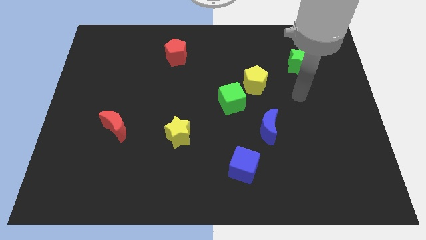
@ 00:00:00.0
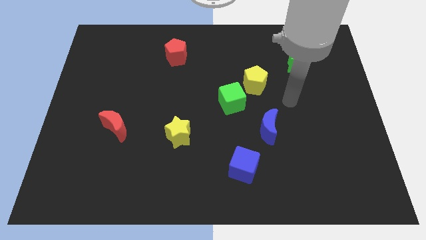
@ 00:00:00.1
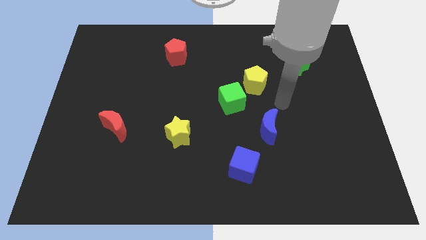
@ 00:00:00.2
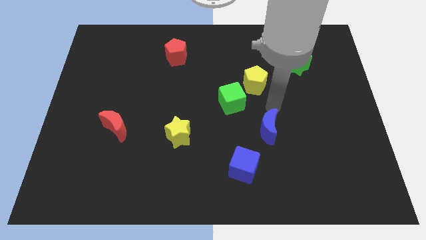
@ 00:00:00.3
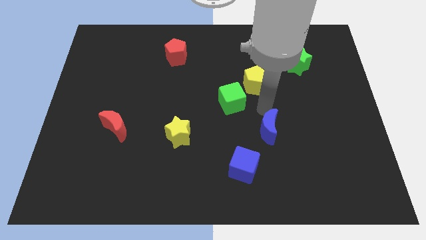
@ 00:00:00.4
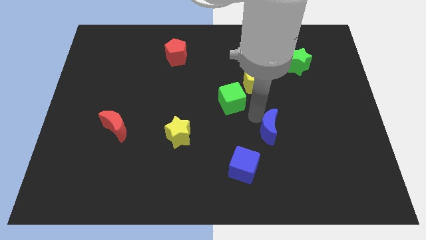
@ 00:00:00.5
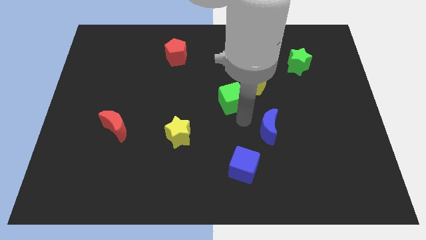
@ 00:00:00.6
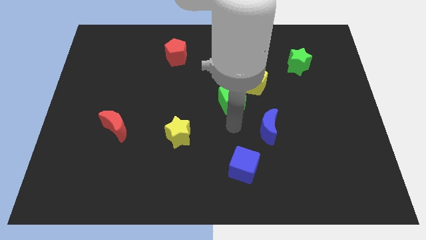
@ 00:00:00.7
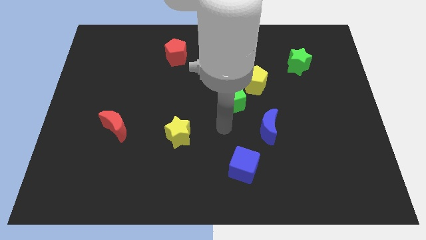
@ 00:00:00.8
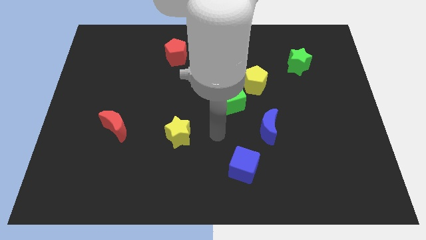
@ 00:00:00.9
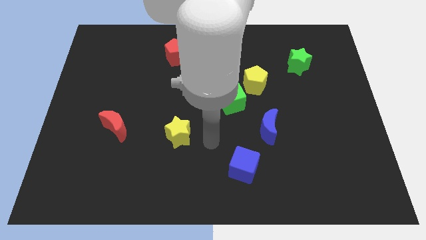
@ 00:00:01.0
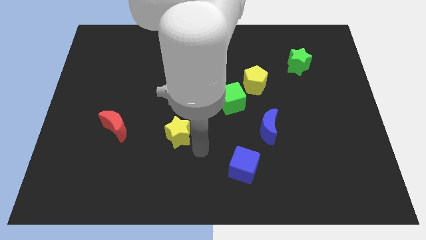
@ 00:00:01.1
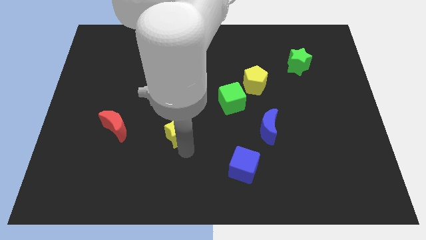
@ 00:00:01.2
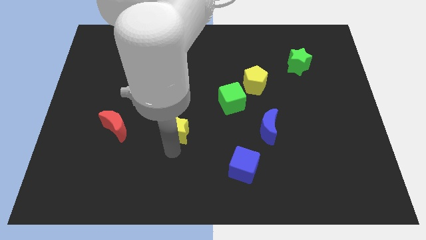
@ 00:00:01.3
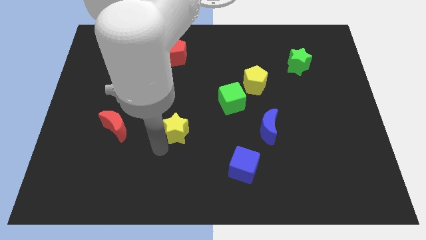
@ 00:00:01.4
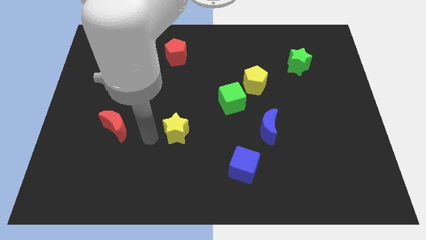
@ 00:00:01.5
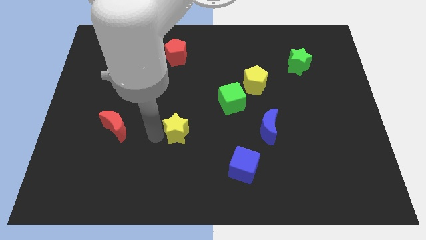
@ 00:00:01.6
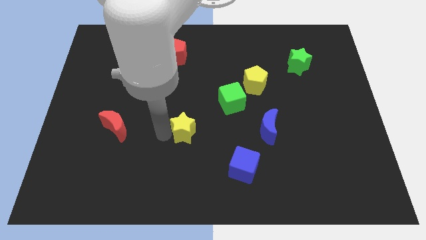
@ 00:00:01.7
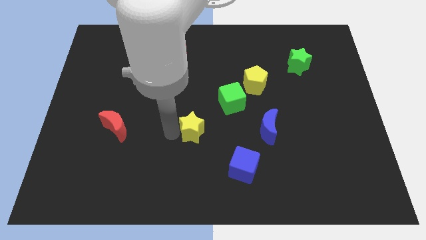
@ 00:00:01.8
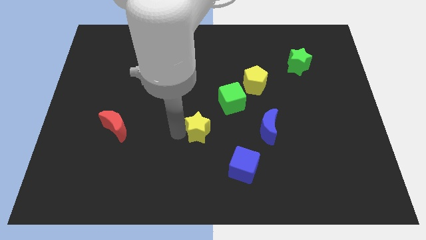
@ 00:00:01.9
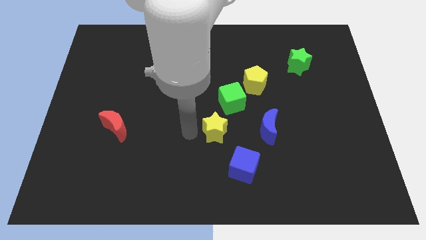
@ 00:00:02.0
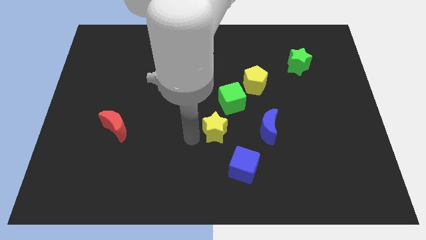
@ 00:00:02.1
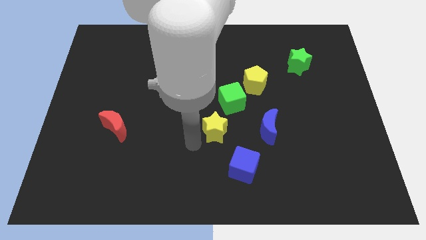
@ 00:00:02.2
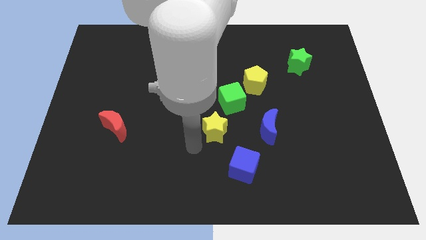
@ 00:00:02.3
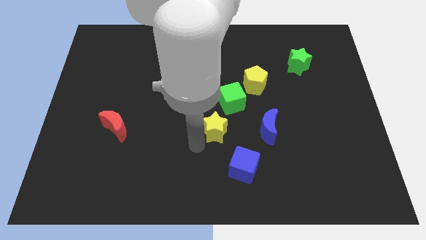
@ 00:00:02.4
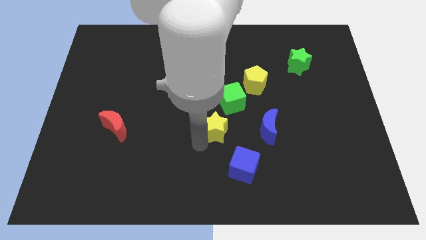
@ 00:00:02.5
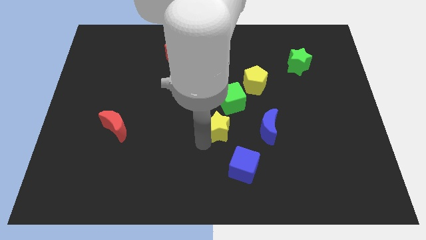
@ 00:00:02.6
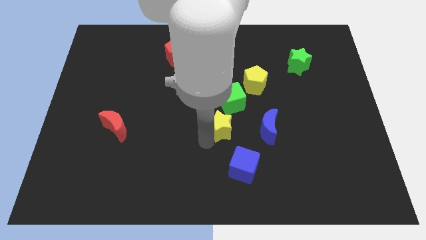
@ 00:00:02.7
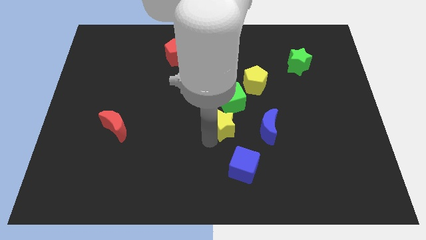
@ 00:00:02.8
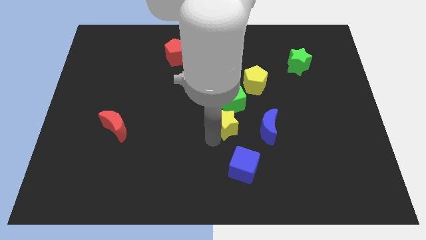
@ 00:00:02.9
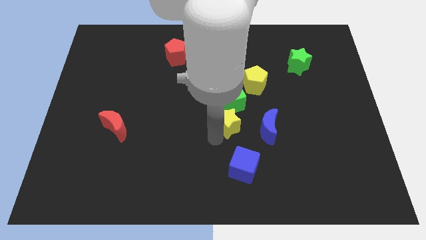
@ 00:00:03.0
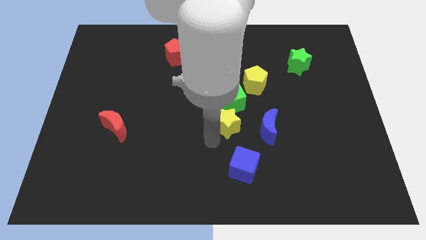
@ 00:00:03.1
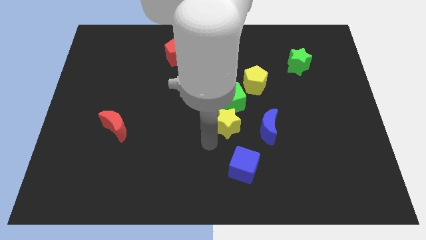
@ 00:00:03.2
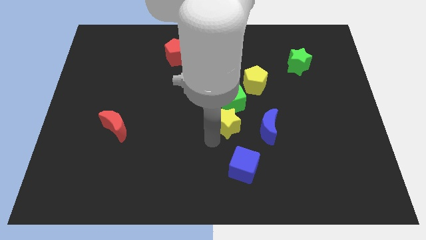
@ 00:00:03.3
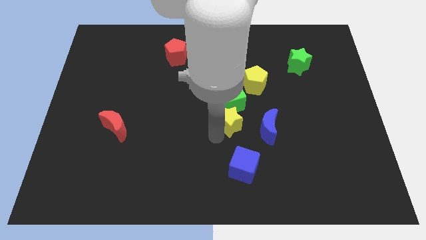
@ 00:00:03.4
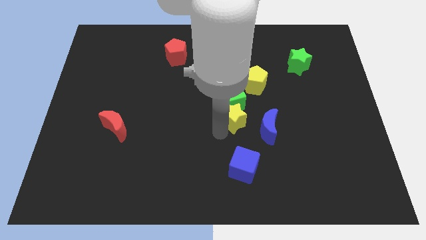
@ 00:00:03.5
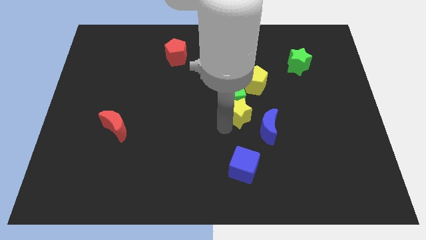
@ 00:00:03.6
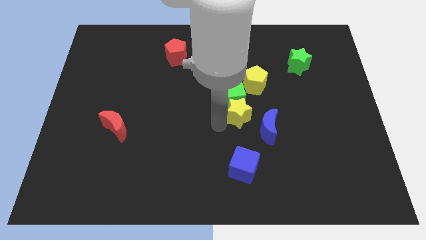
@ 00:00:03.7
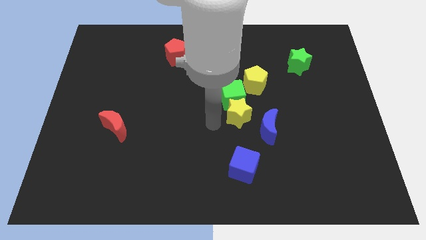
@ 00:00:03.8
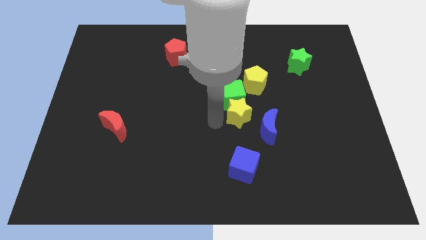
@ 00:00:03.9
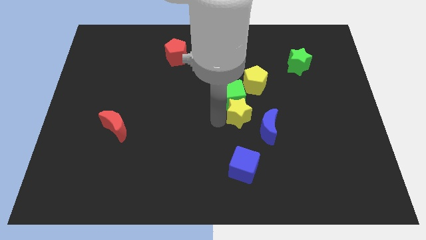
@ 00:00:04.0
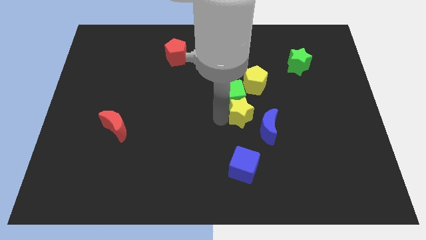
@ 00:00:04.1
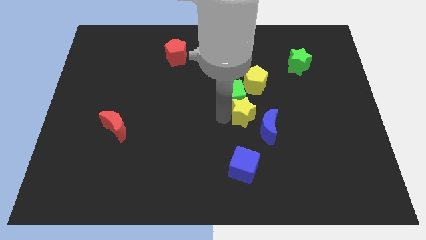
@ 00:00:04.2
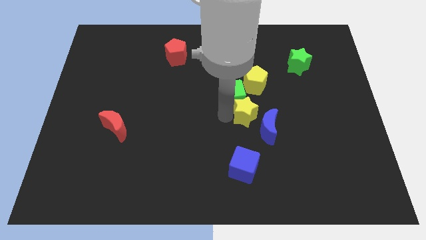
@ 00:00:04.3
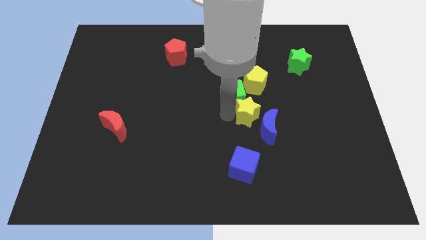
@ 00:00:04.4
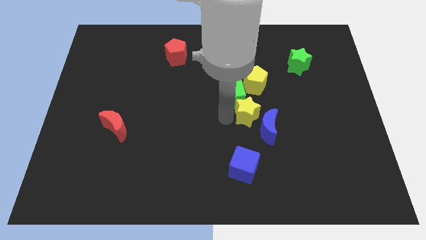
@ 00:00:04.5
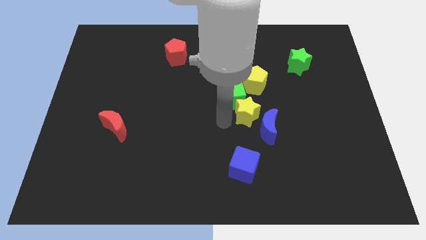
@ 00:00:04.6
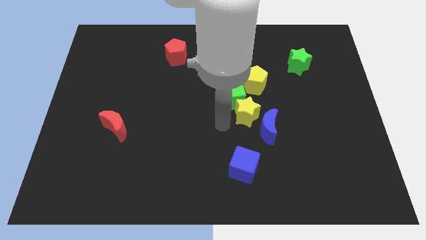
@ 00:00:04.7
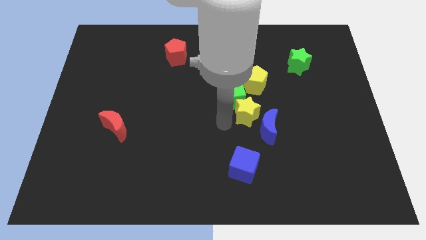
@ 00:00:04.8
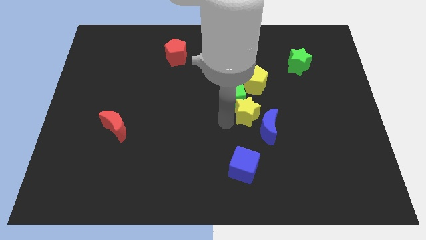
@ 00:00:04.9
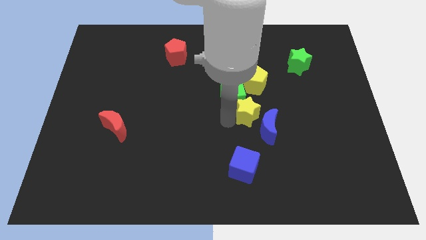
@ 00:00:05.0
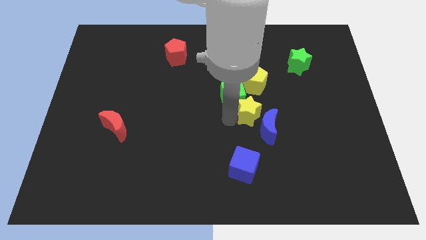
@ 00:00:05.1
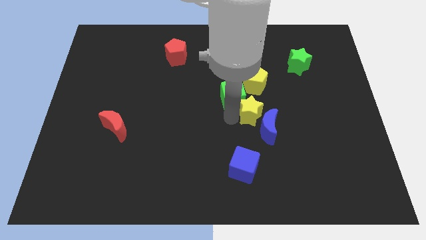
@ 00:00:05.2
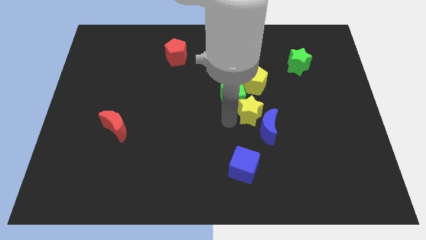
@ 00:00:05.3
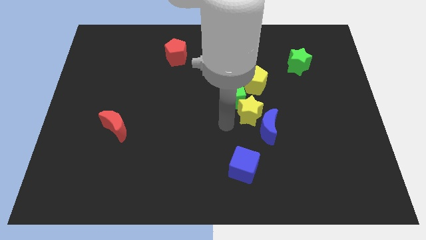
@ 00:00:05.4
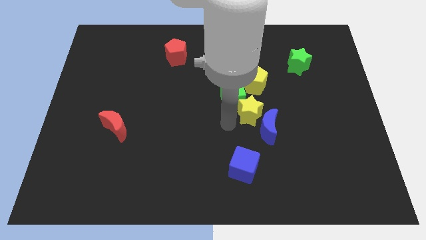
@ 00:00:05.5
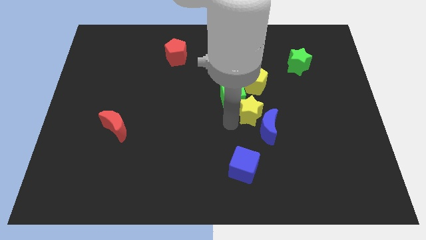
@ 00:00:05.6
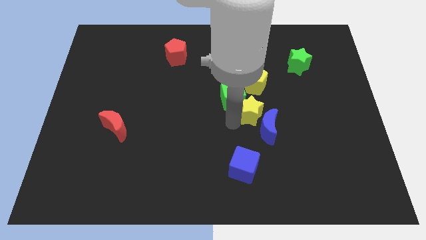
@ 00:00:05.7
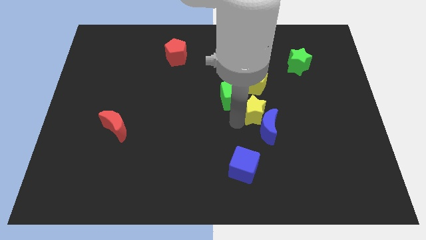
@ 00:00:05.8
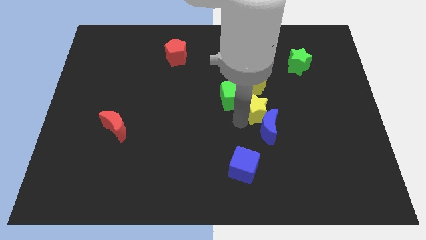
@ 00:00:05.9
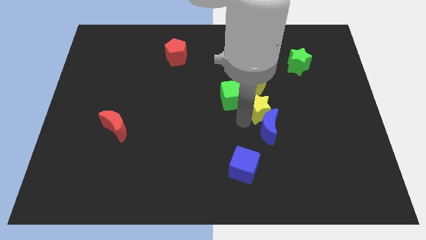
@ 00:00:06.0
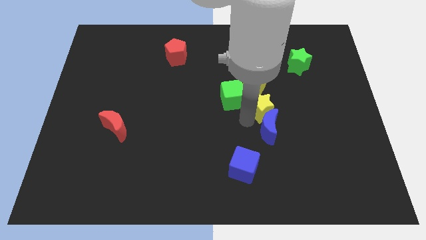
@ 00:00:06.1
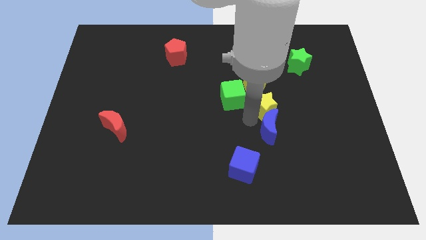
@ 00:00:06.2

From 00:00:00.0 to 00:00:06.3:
move the yellow star to the bottom right side of the yellow pentagon
